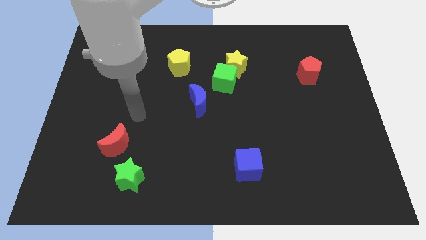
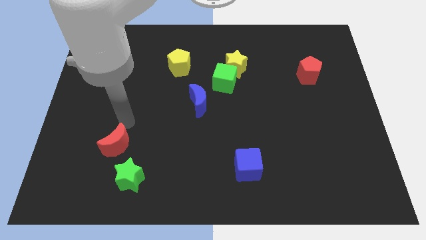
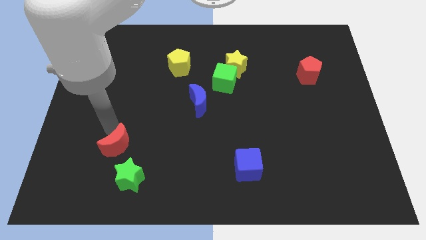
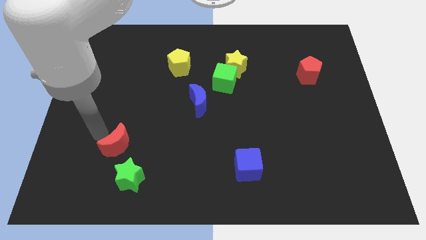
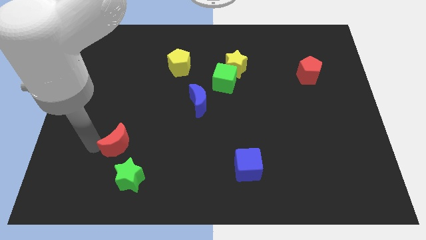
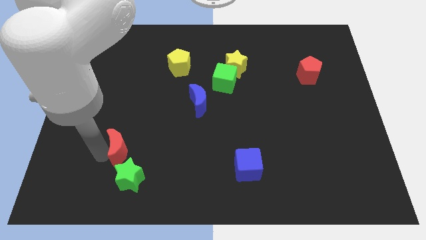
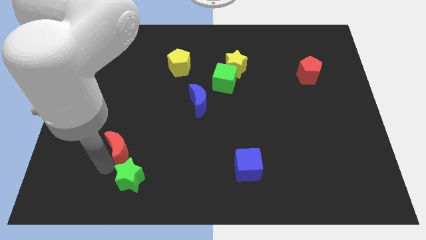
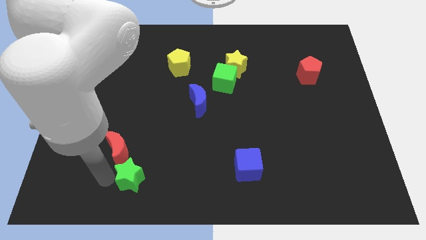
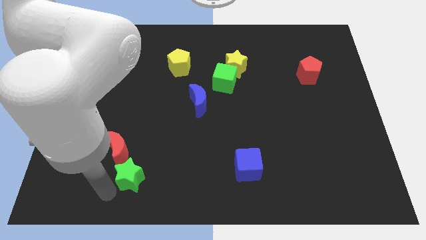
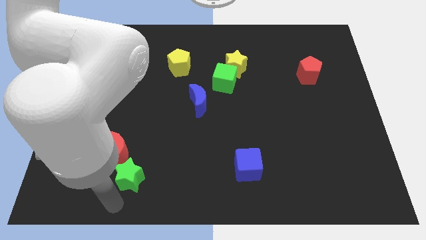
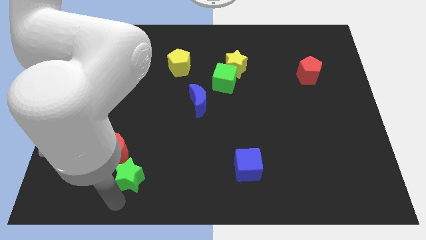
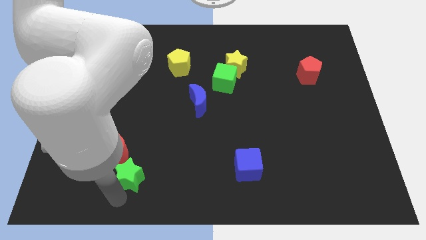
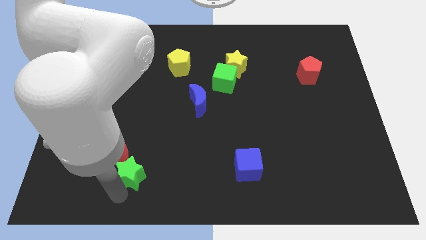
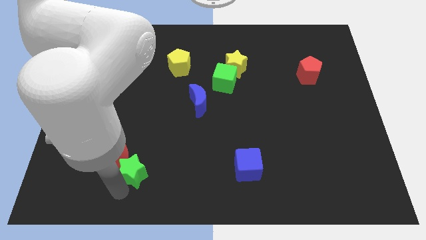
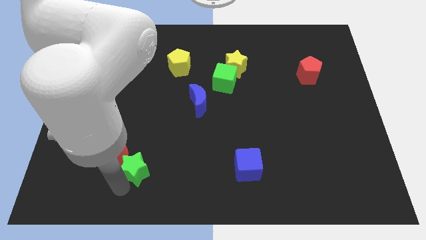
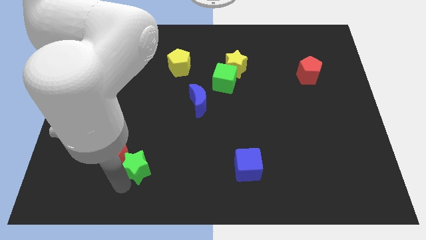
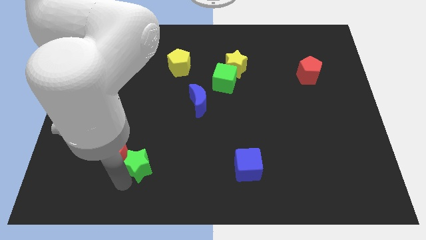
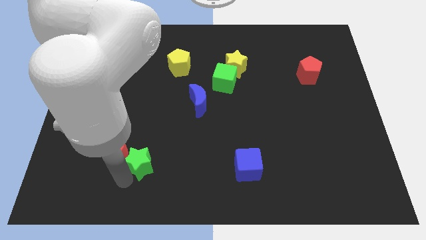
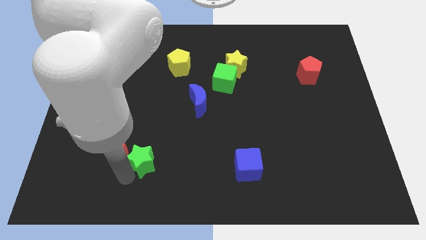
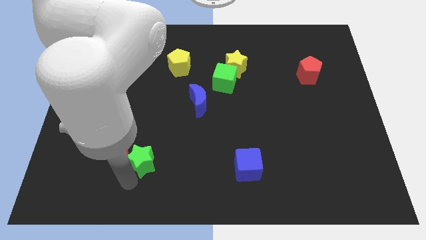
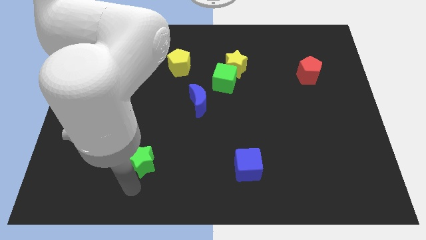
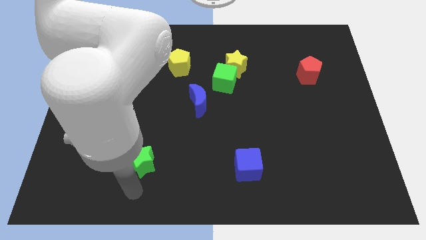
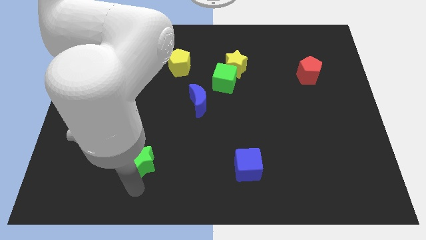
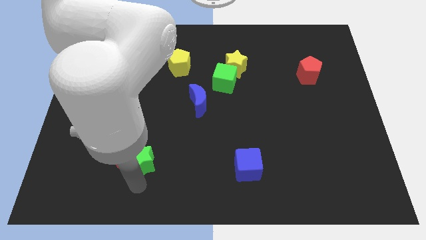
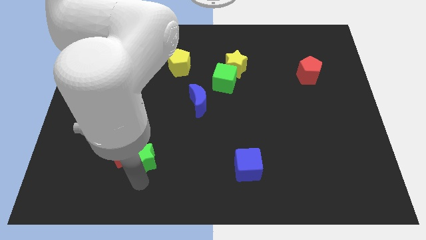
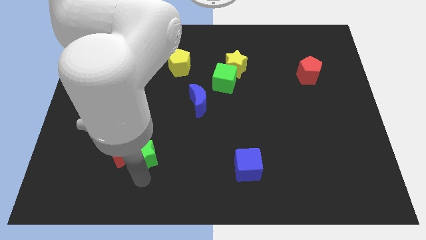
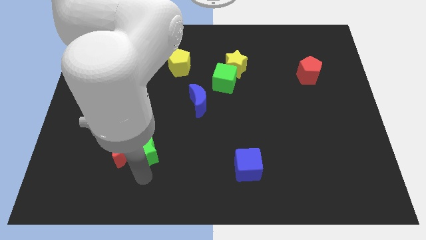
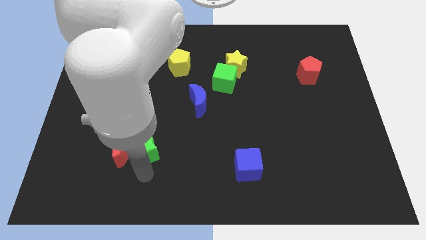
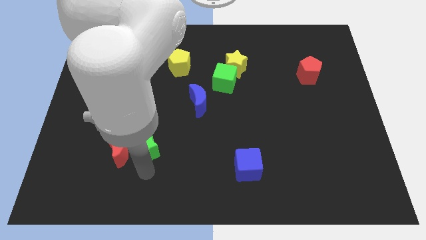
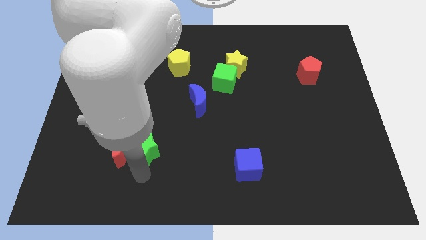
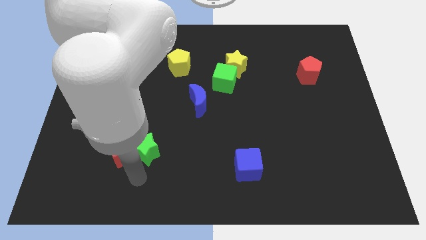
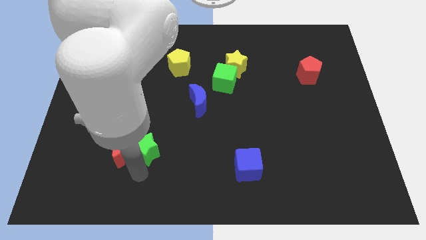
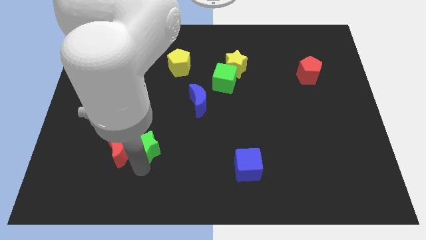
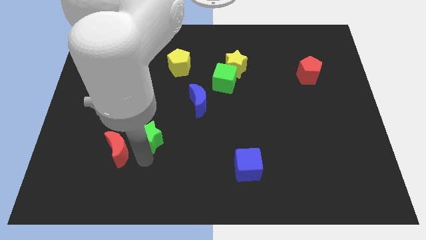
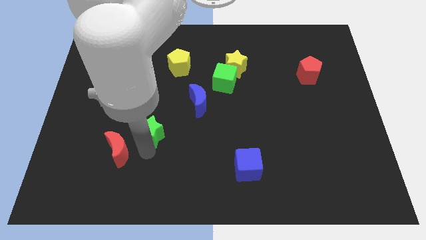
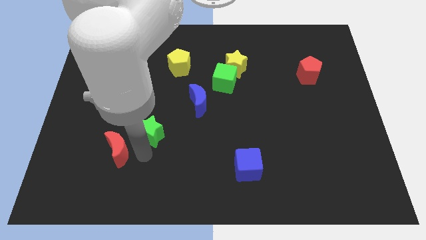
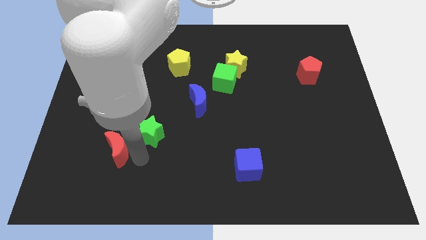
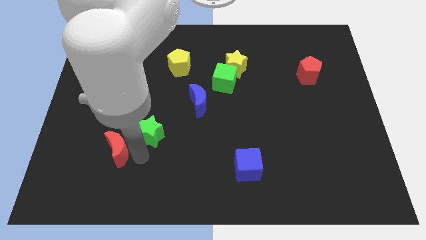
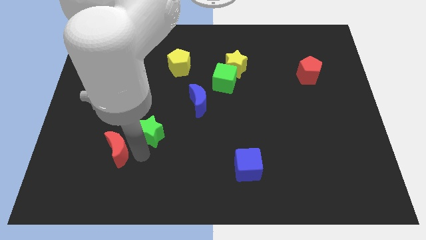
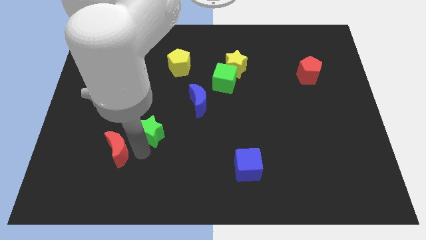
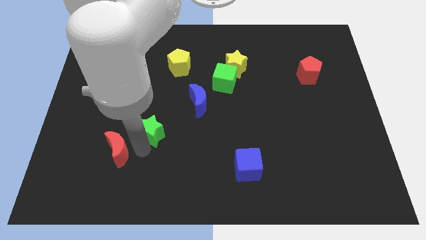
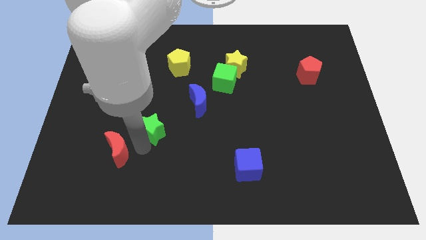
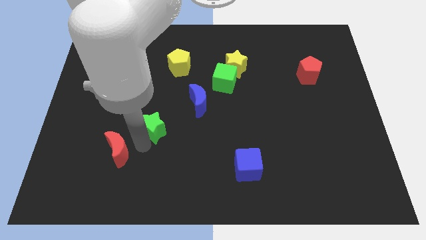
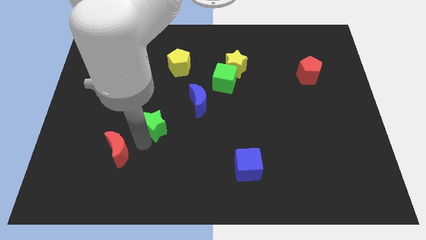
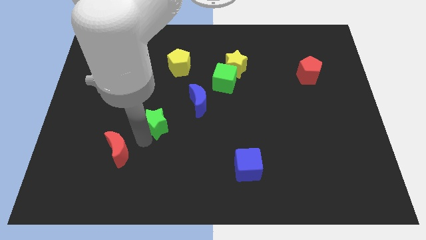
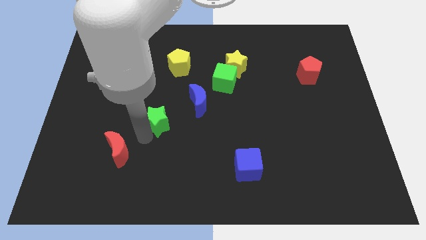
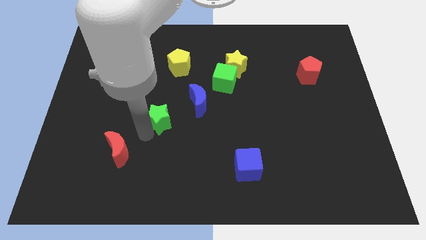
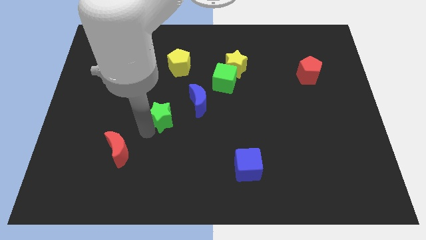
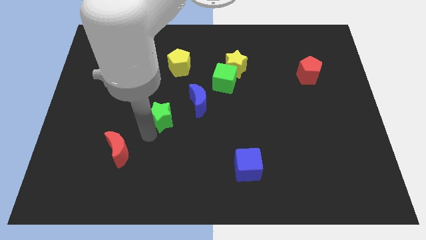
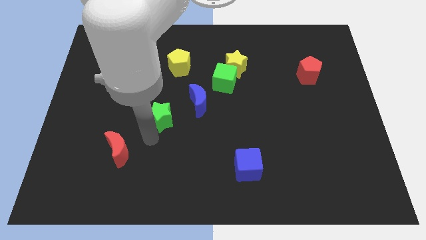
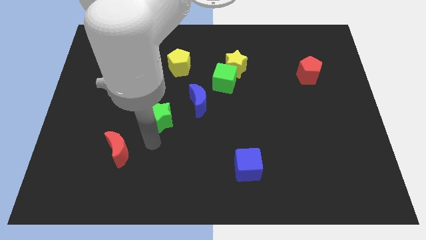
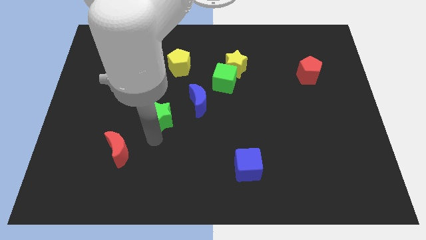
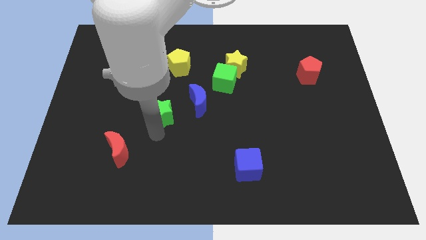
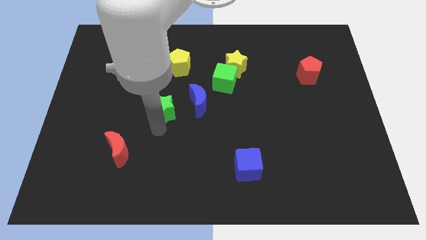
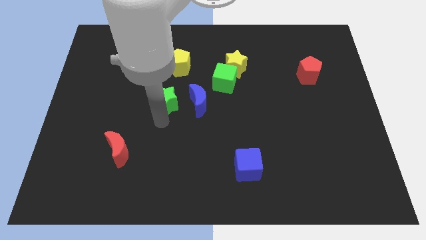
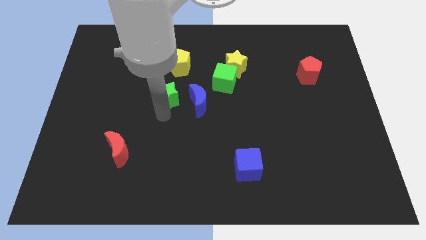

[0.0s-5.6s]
move the green star diagonally up and to the left of the blue moon

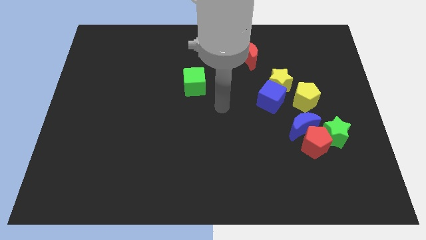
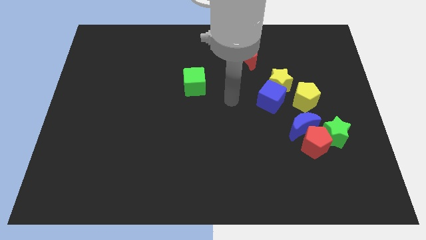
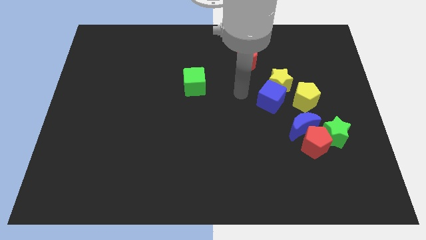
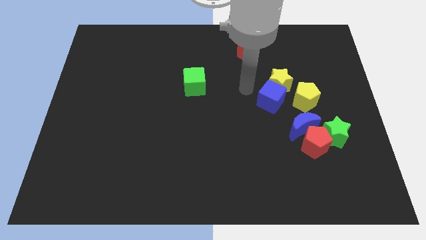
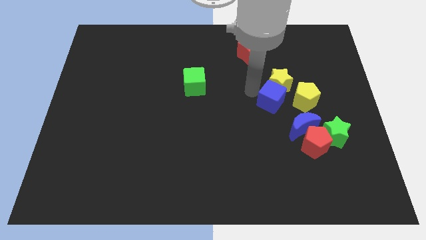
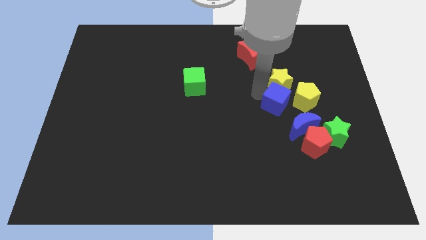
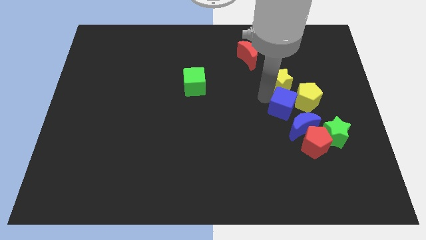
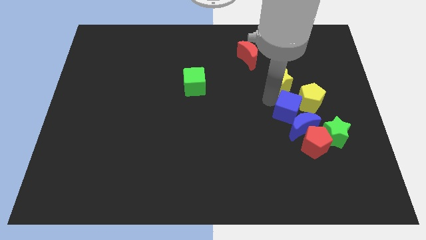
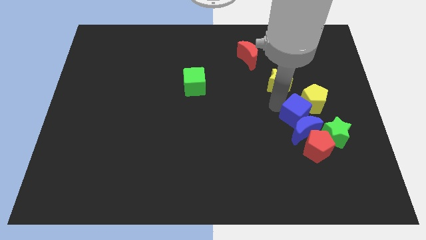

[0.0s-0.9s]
slide the blue cube to the top right of the blue moon
